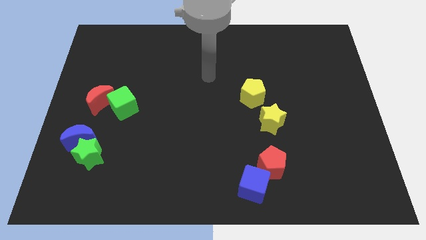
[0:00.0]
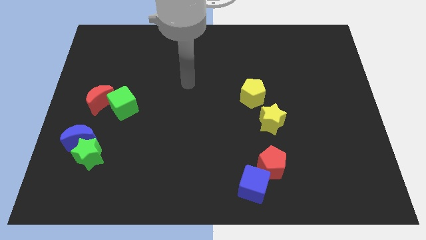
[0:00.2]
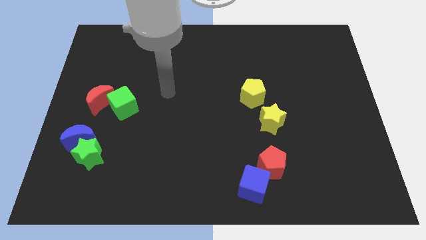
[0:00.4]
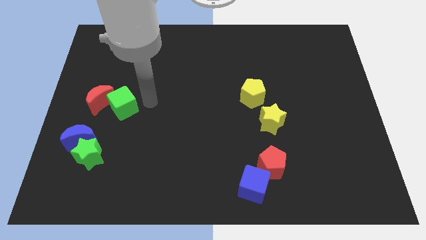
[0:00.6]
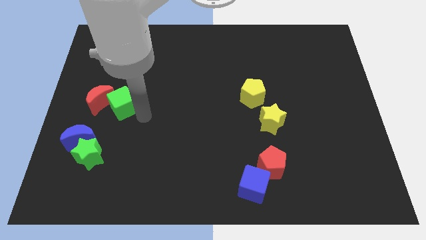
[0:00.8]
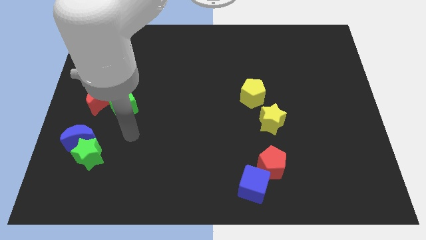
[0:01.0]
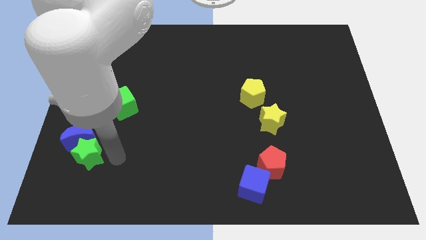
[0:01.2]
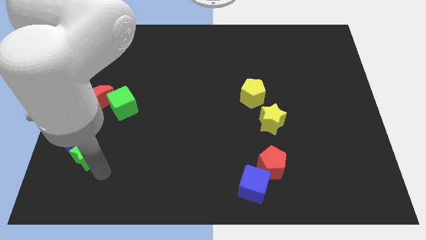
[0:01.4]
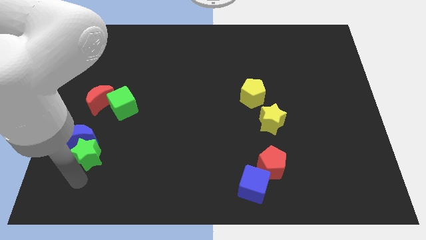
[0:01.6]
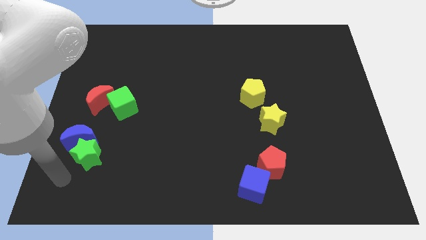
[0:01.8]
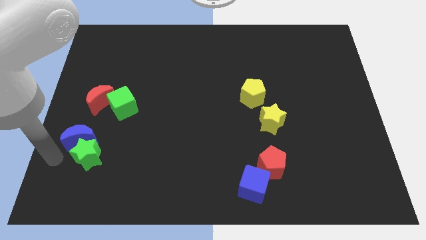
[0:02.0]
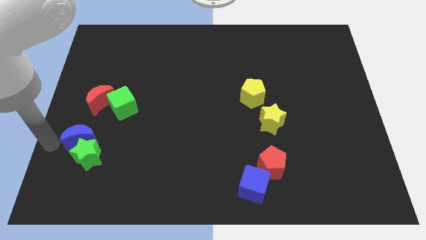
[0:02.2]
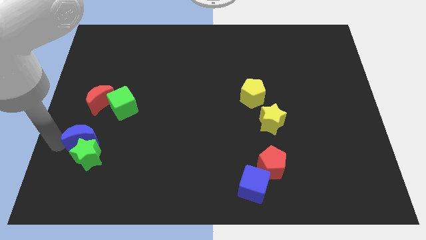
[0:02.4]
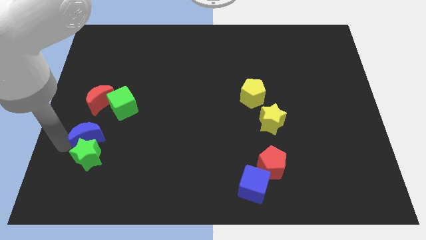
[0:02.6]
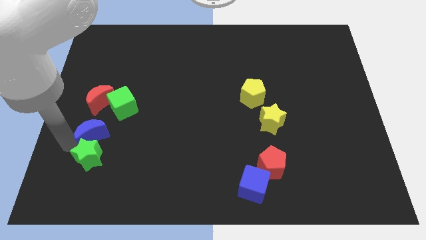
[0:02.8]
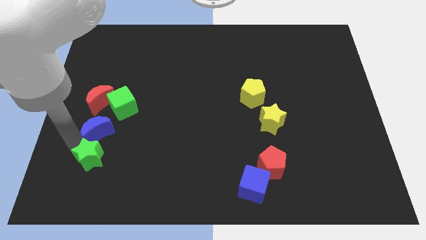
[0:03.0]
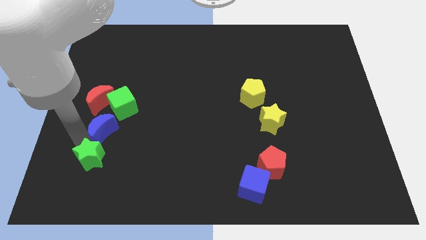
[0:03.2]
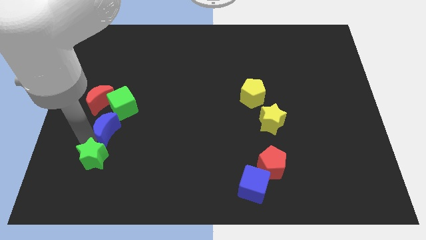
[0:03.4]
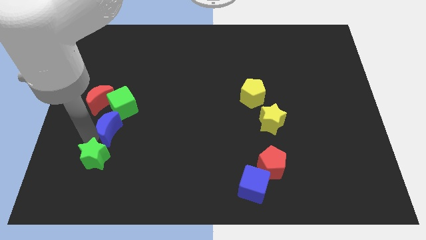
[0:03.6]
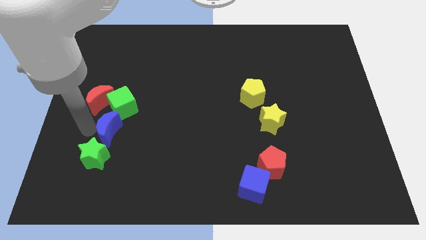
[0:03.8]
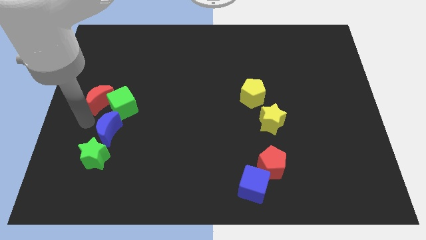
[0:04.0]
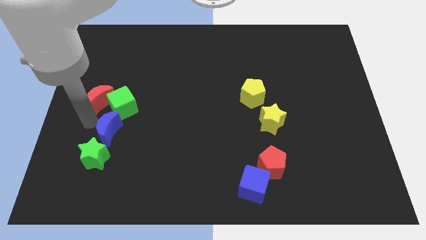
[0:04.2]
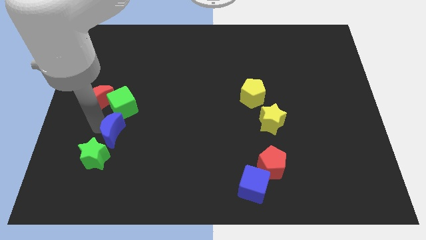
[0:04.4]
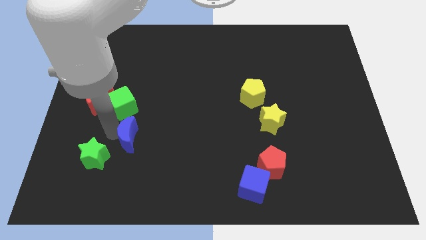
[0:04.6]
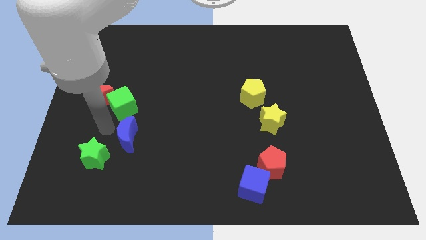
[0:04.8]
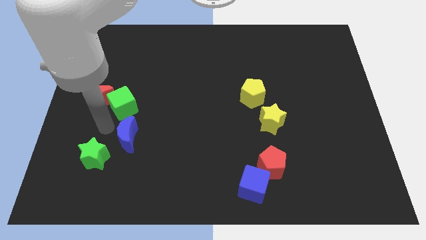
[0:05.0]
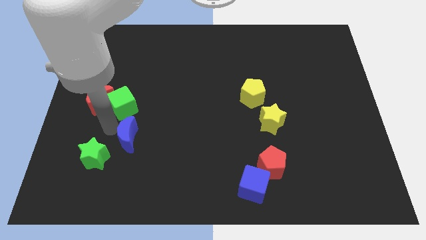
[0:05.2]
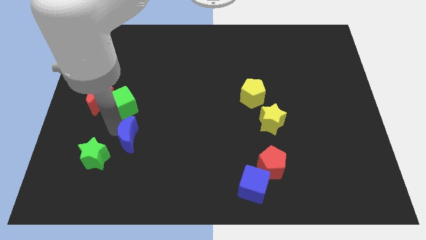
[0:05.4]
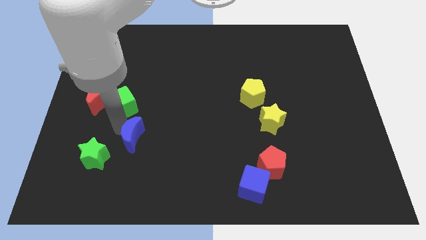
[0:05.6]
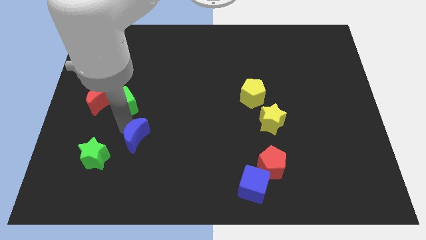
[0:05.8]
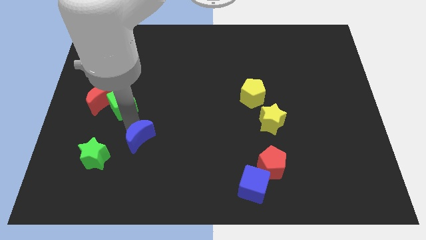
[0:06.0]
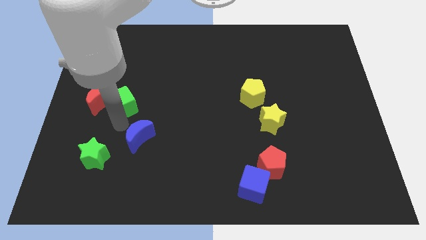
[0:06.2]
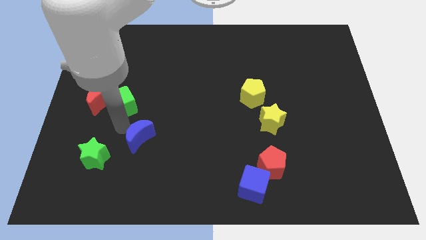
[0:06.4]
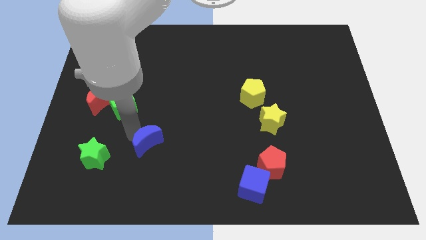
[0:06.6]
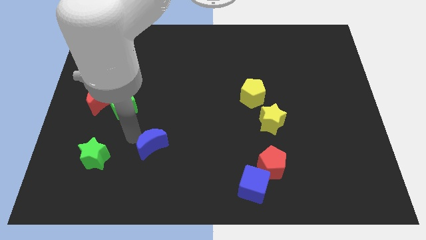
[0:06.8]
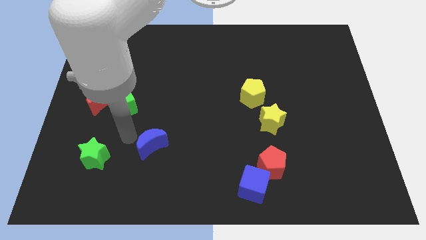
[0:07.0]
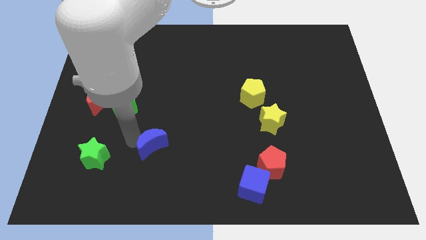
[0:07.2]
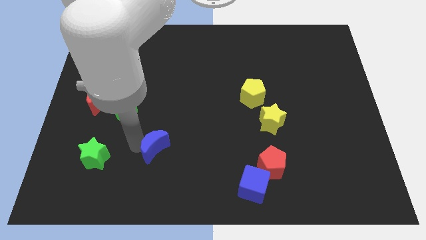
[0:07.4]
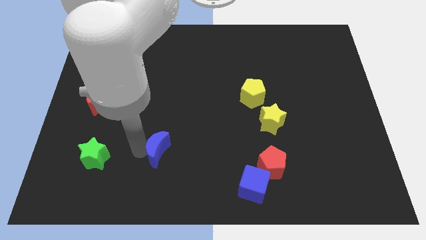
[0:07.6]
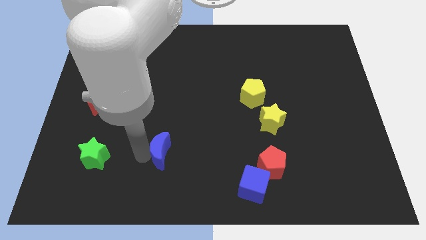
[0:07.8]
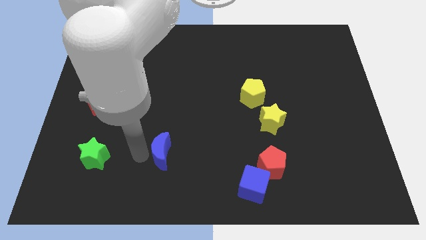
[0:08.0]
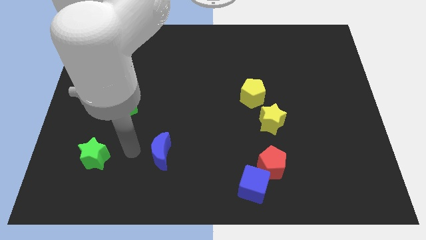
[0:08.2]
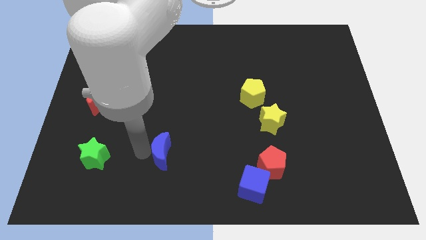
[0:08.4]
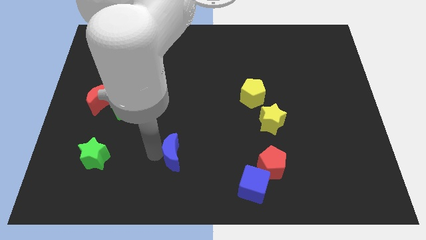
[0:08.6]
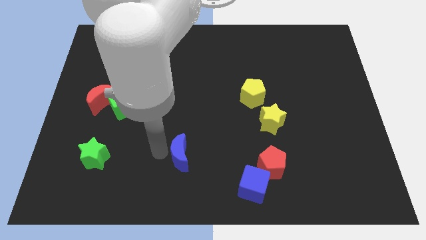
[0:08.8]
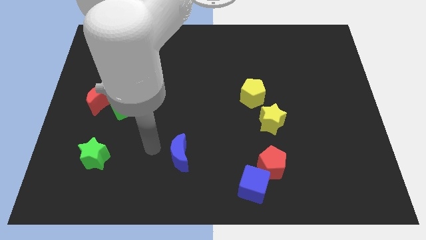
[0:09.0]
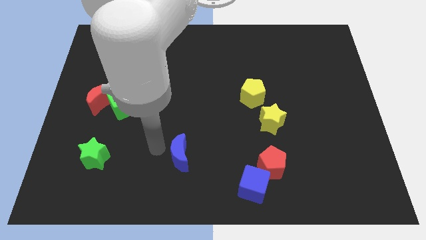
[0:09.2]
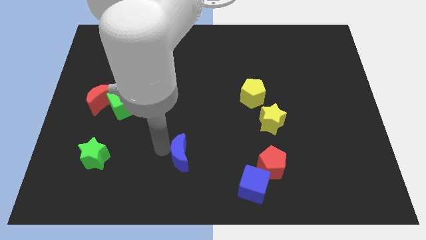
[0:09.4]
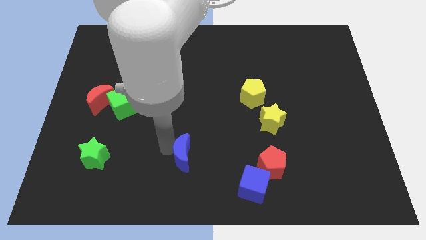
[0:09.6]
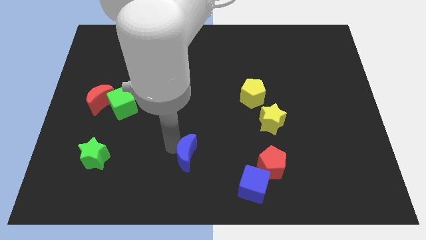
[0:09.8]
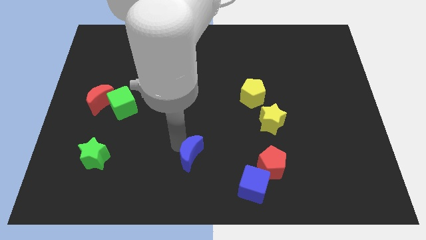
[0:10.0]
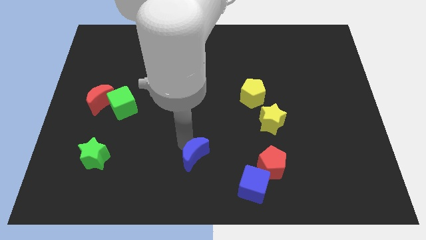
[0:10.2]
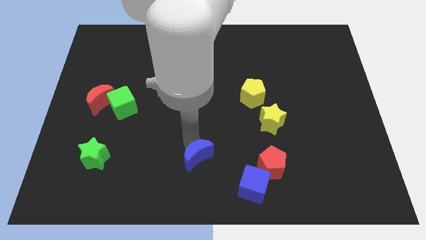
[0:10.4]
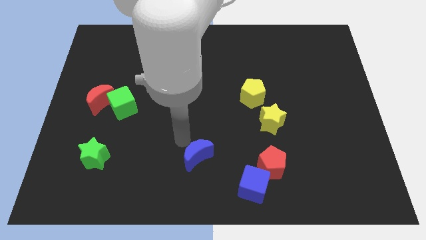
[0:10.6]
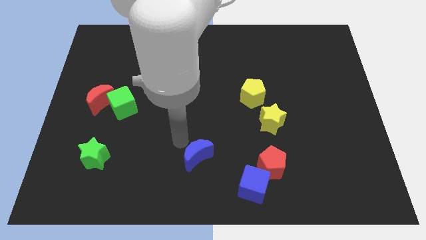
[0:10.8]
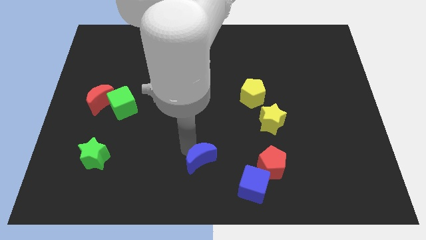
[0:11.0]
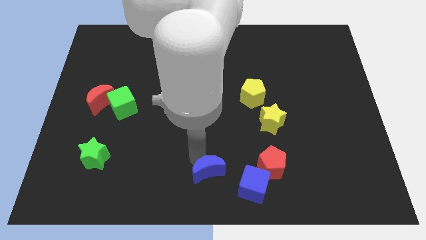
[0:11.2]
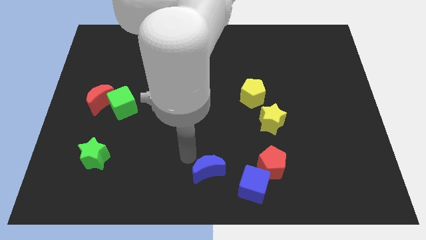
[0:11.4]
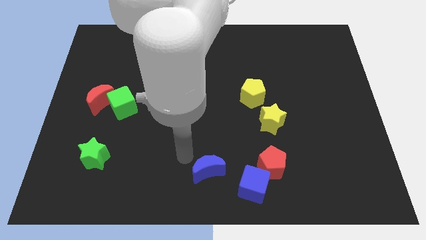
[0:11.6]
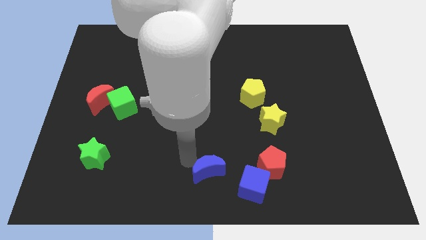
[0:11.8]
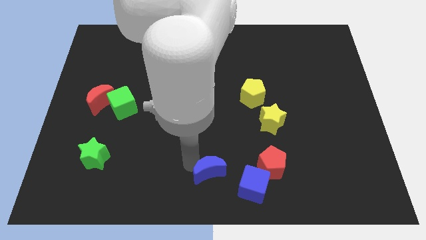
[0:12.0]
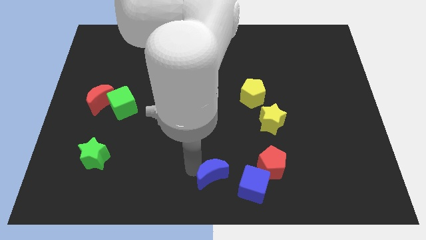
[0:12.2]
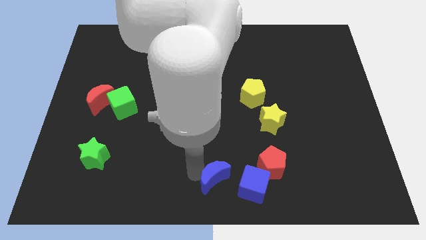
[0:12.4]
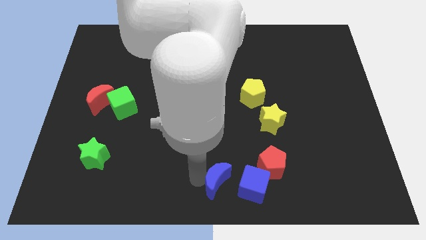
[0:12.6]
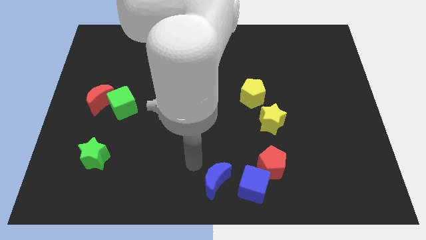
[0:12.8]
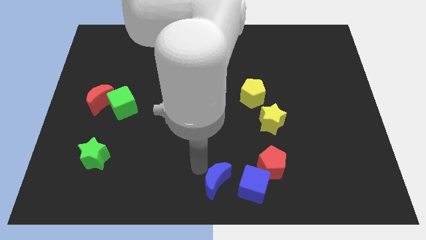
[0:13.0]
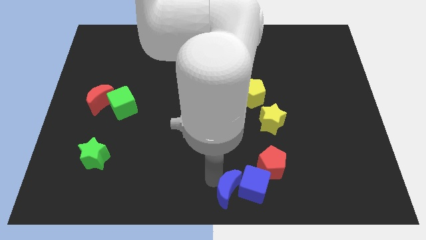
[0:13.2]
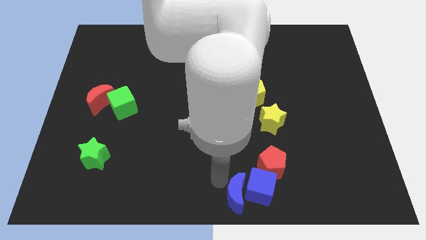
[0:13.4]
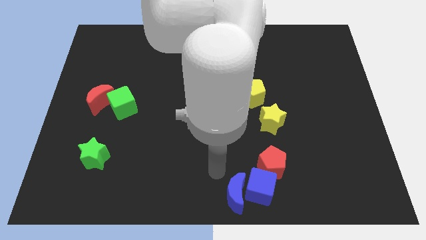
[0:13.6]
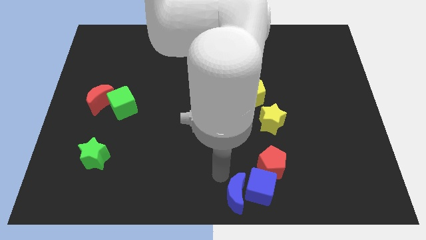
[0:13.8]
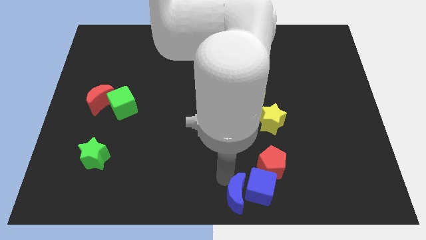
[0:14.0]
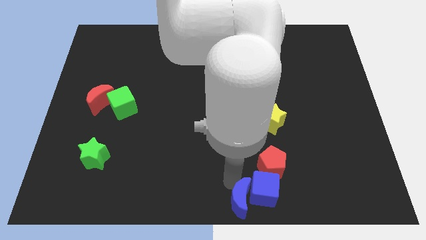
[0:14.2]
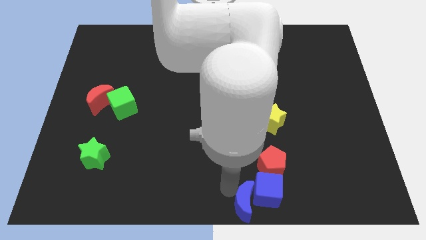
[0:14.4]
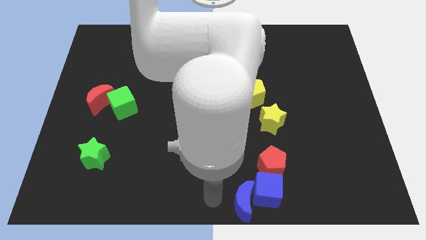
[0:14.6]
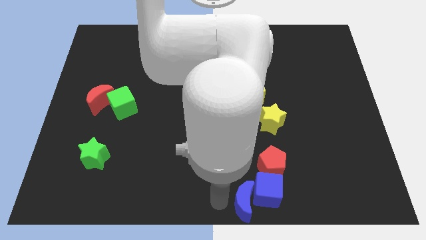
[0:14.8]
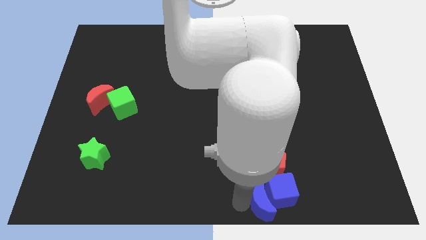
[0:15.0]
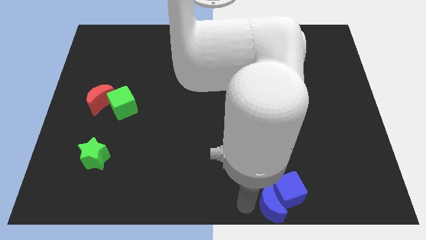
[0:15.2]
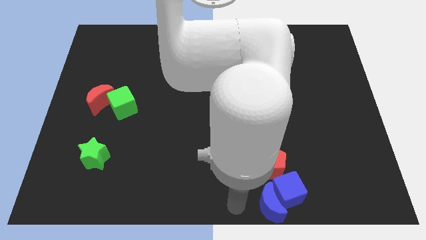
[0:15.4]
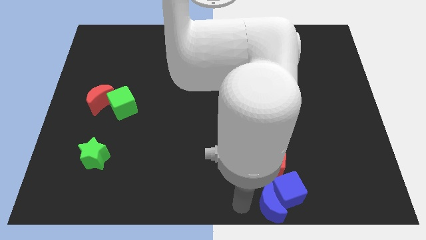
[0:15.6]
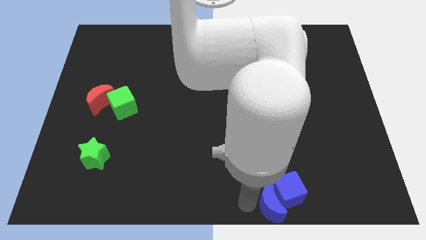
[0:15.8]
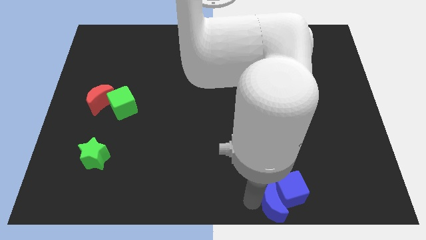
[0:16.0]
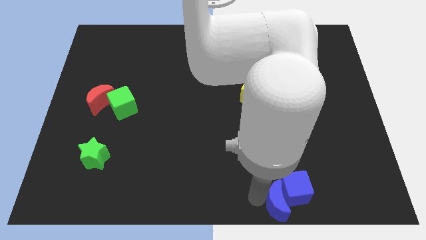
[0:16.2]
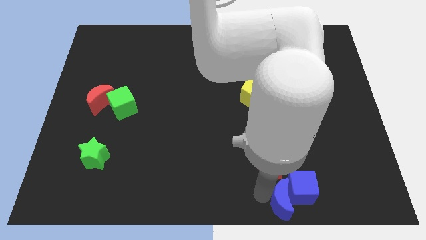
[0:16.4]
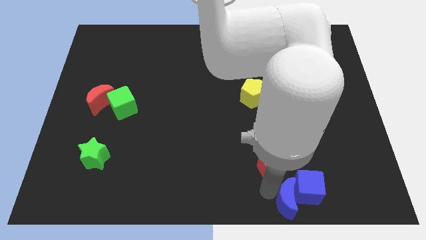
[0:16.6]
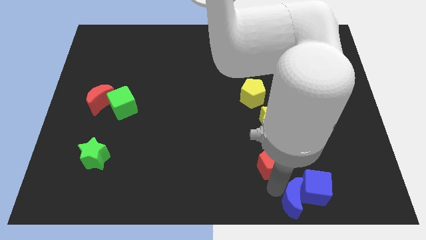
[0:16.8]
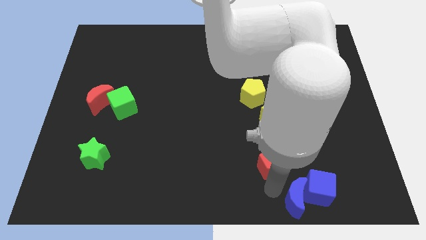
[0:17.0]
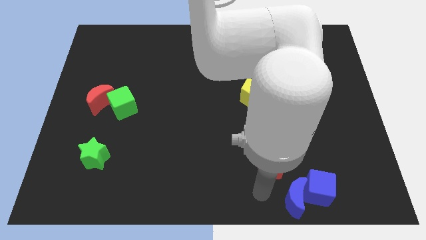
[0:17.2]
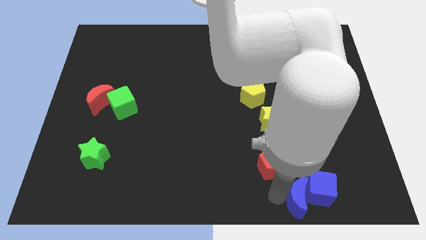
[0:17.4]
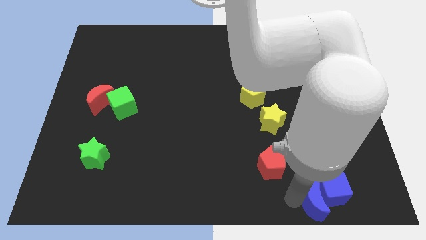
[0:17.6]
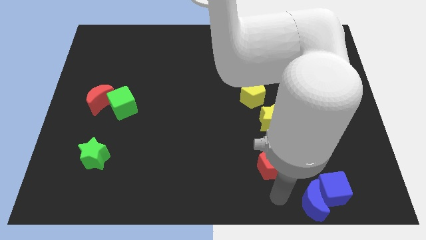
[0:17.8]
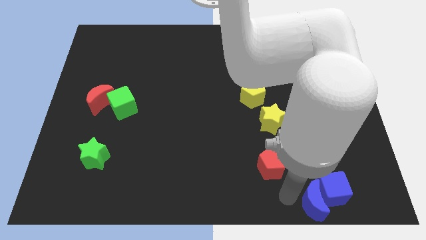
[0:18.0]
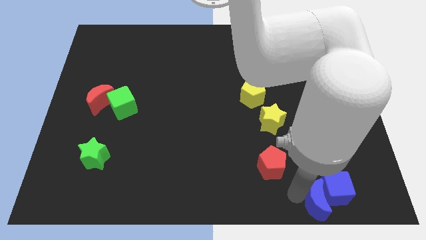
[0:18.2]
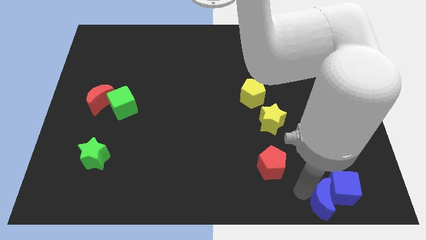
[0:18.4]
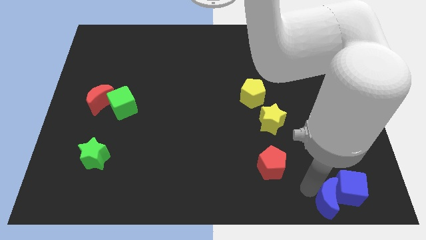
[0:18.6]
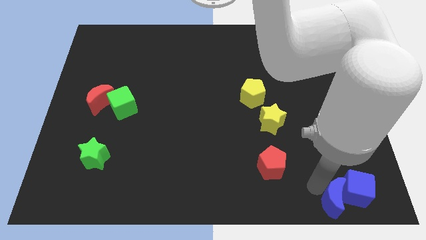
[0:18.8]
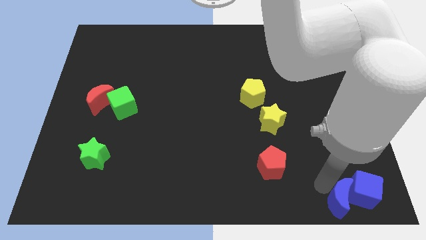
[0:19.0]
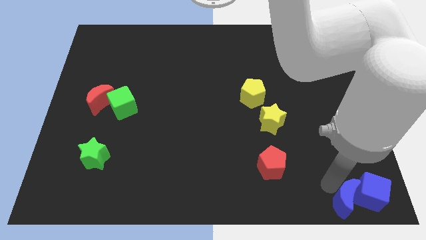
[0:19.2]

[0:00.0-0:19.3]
slide the blue moon to the bottom right corner
